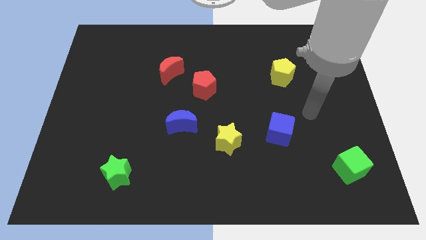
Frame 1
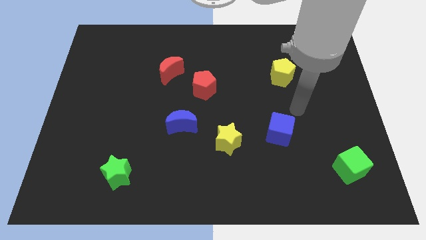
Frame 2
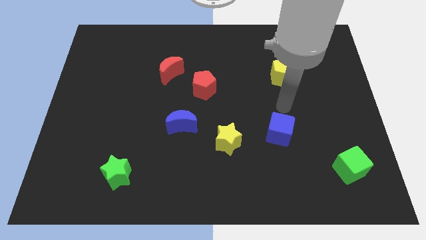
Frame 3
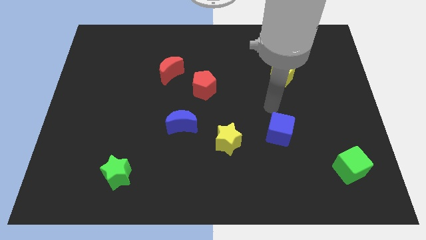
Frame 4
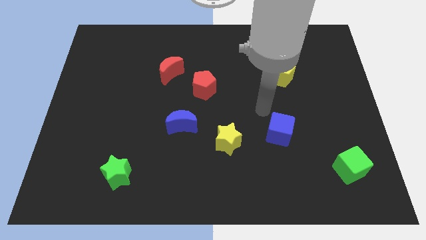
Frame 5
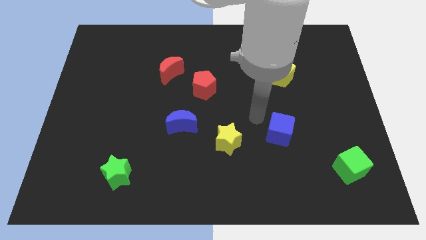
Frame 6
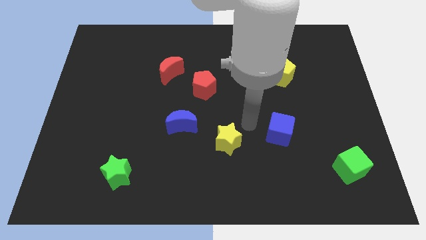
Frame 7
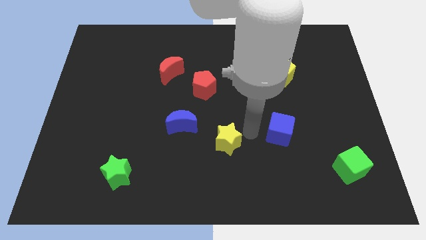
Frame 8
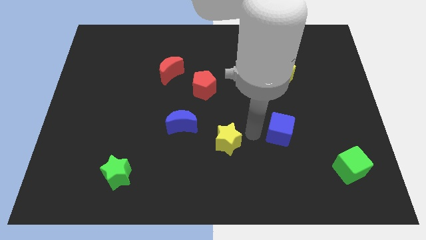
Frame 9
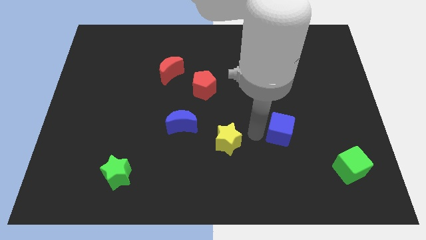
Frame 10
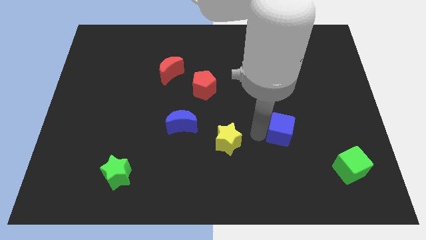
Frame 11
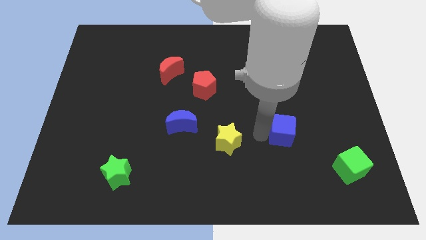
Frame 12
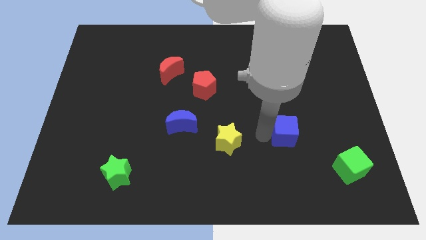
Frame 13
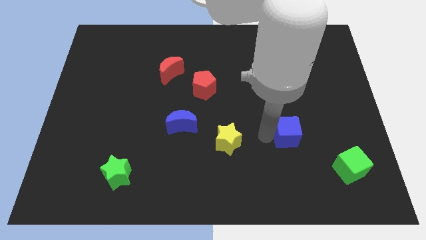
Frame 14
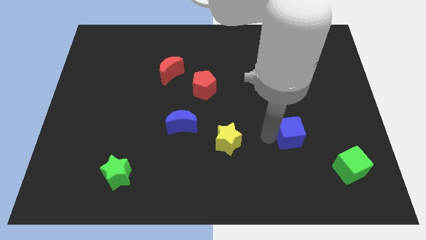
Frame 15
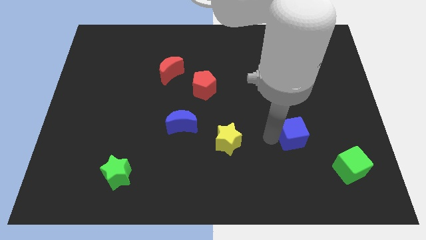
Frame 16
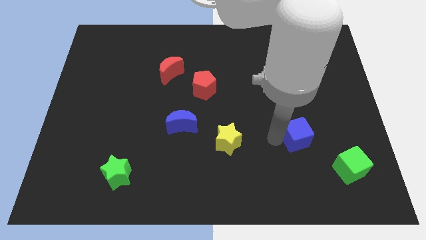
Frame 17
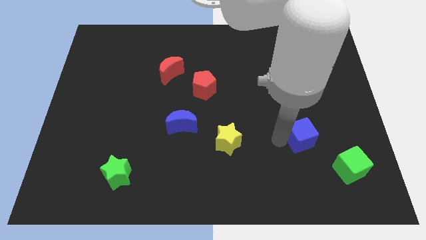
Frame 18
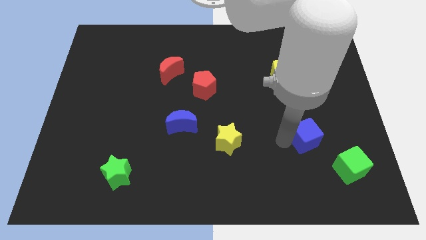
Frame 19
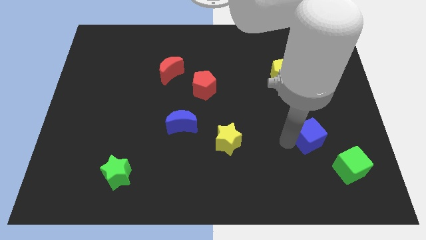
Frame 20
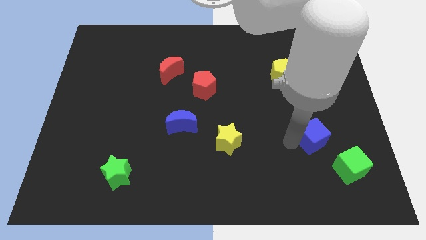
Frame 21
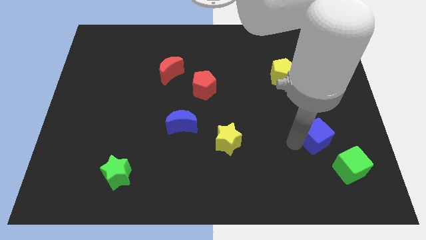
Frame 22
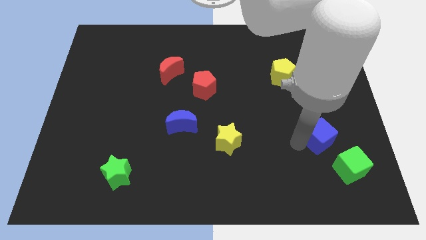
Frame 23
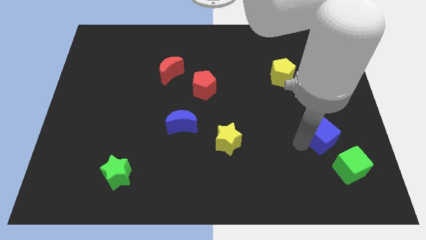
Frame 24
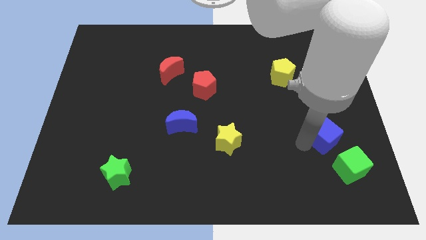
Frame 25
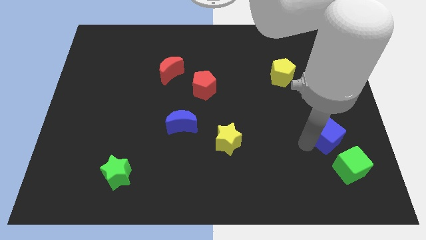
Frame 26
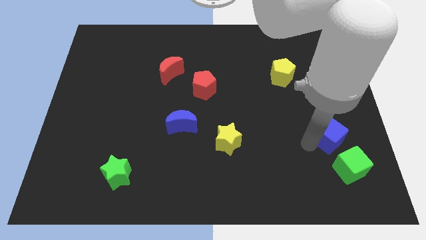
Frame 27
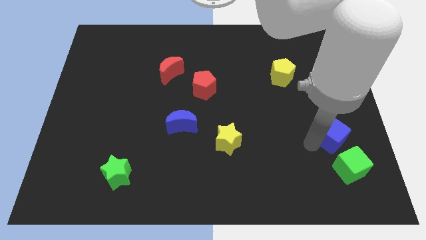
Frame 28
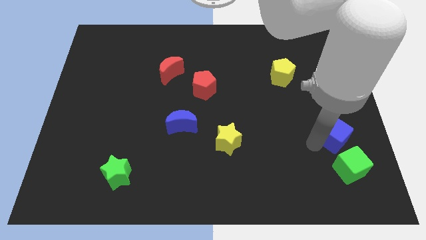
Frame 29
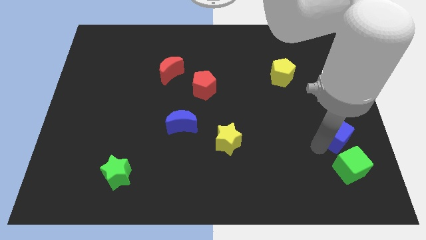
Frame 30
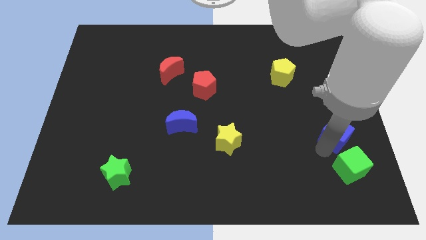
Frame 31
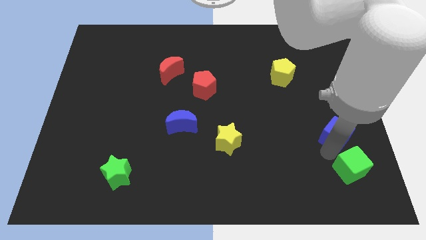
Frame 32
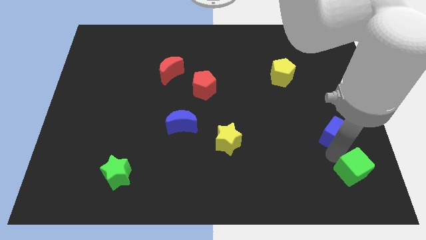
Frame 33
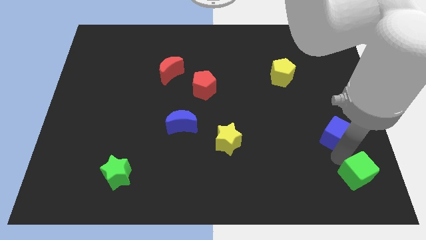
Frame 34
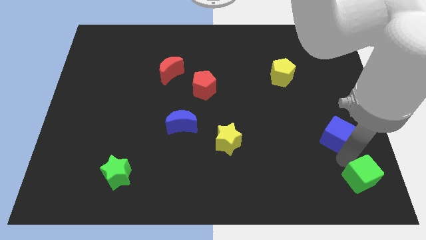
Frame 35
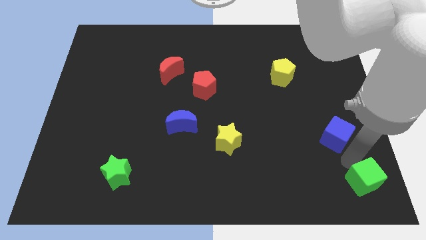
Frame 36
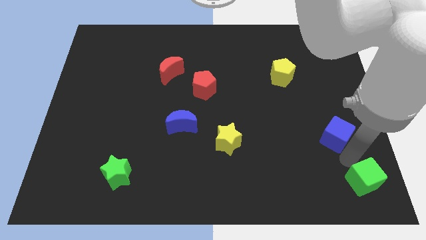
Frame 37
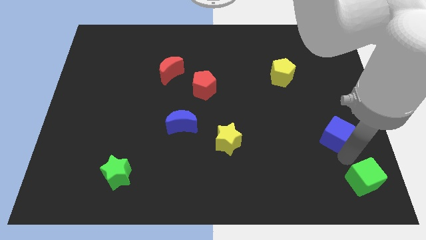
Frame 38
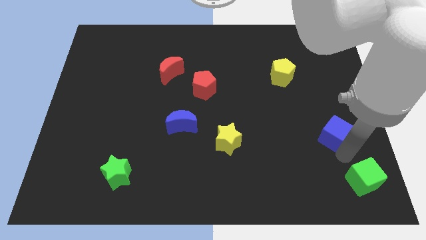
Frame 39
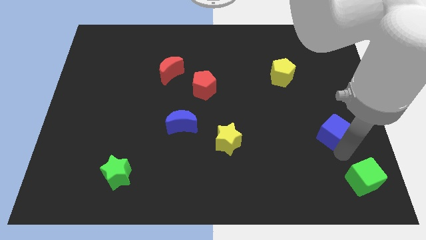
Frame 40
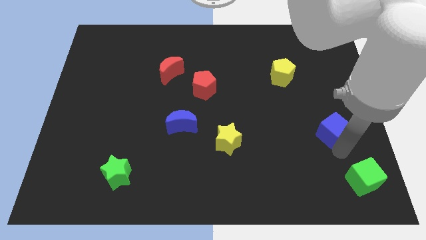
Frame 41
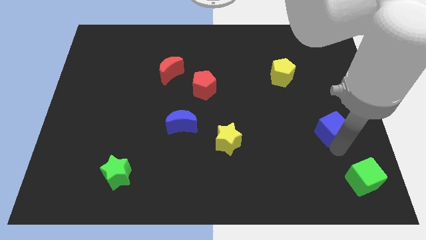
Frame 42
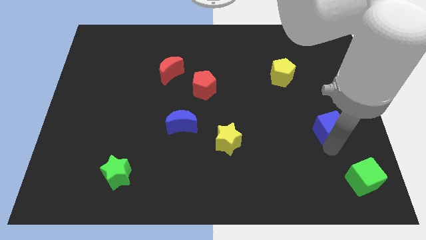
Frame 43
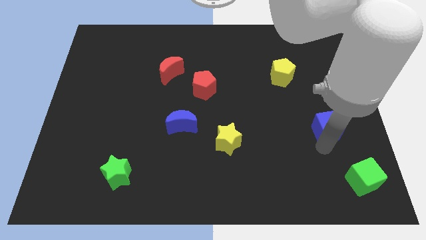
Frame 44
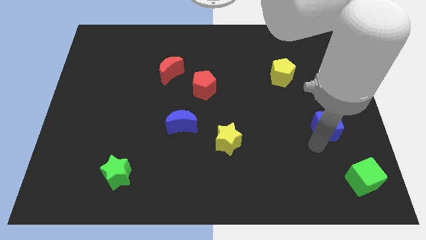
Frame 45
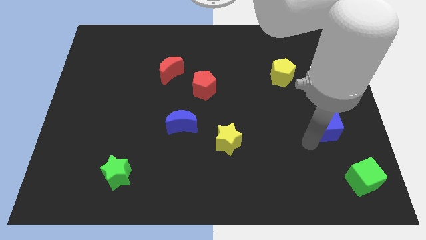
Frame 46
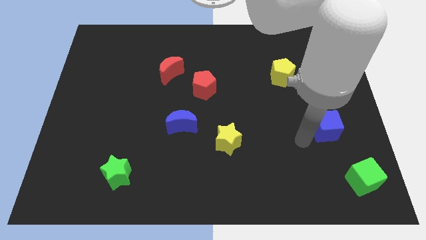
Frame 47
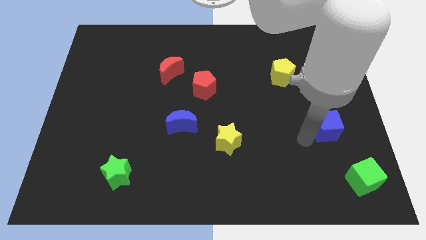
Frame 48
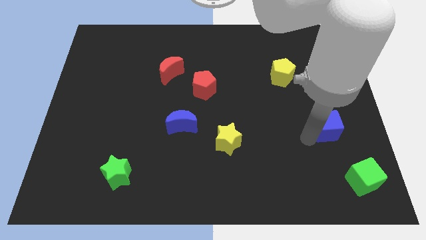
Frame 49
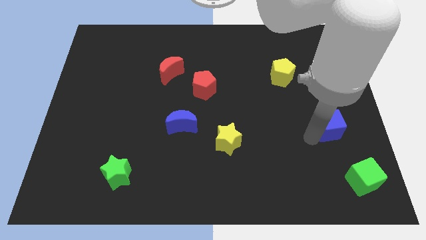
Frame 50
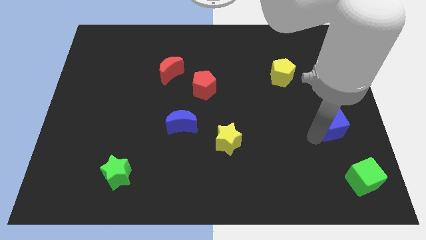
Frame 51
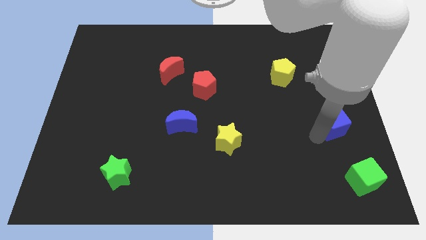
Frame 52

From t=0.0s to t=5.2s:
move the blue cube to the center right

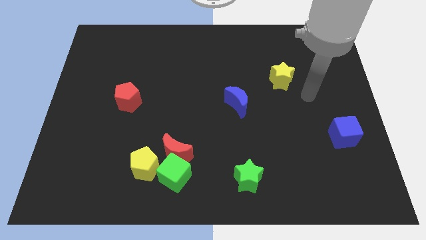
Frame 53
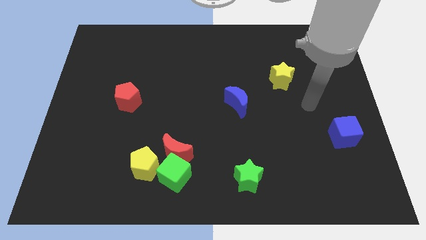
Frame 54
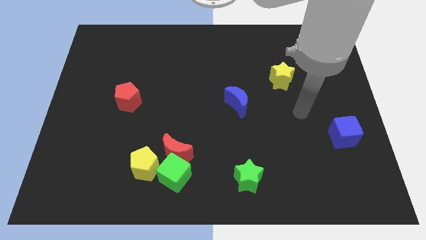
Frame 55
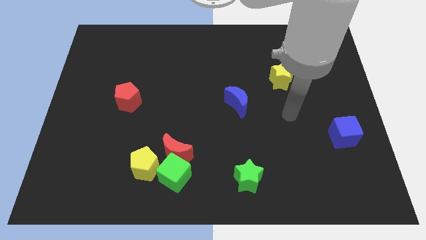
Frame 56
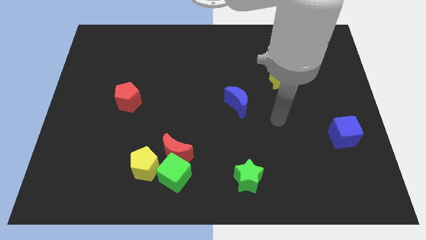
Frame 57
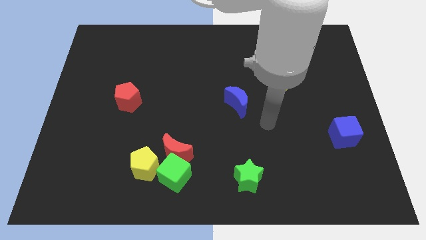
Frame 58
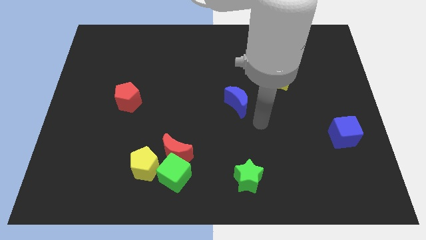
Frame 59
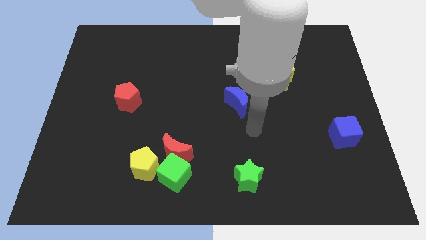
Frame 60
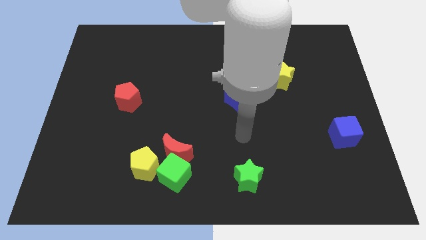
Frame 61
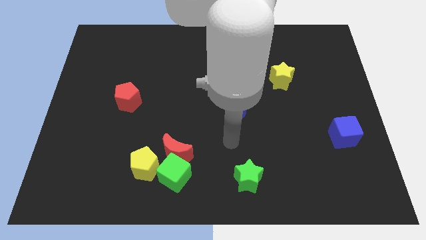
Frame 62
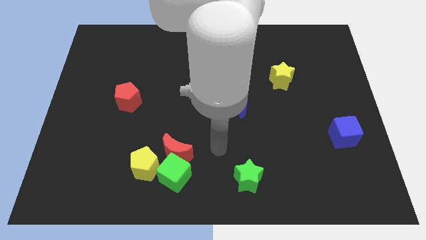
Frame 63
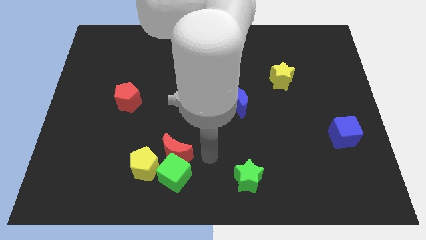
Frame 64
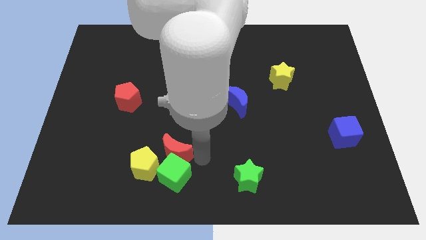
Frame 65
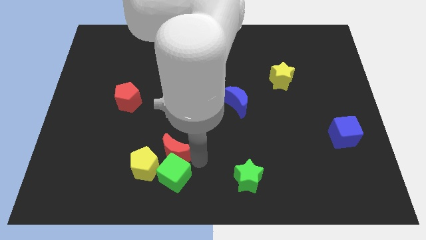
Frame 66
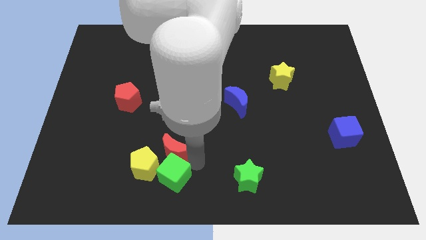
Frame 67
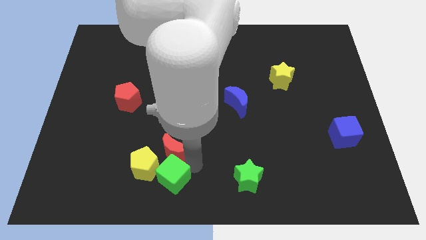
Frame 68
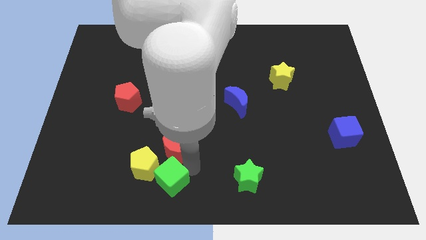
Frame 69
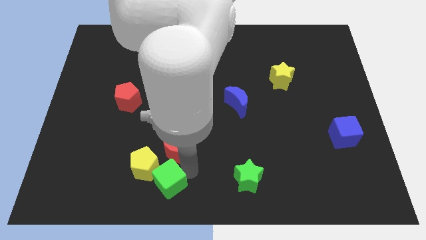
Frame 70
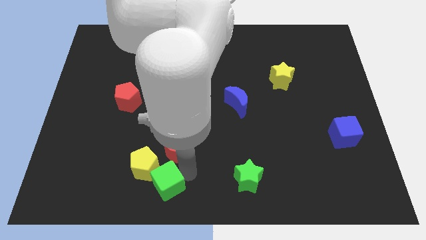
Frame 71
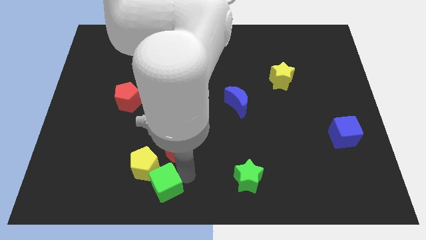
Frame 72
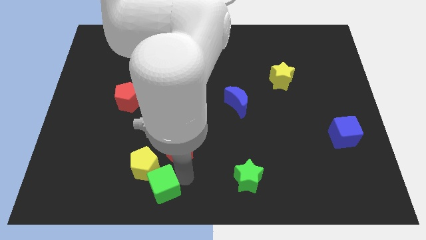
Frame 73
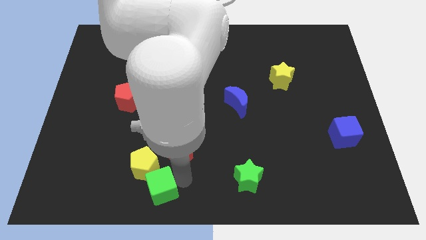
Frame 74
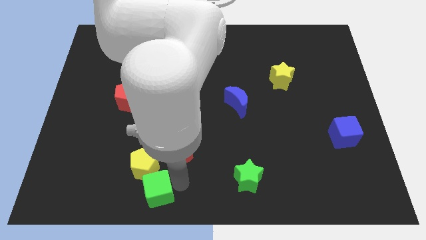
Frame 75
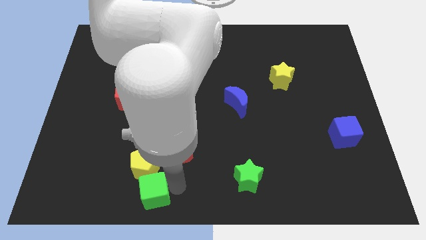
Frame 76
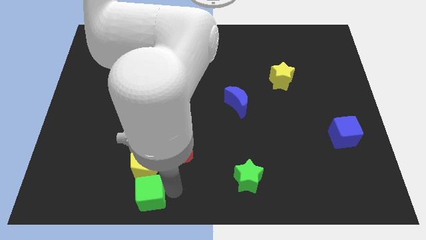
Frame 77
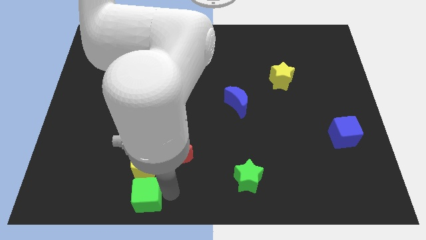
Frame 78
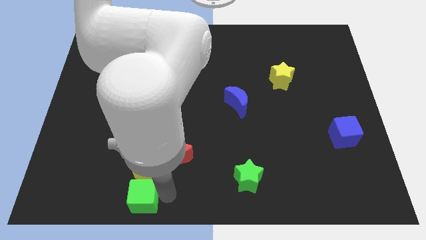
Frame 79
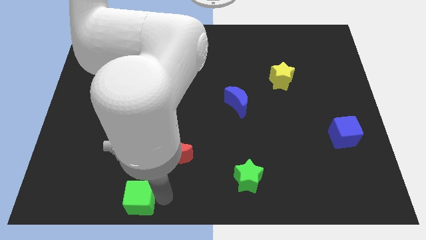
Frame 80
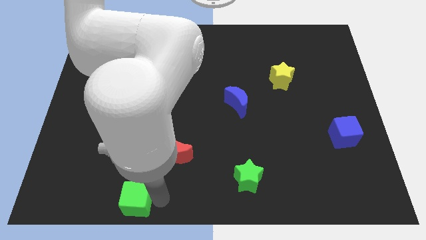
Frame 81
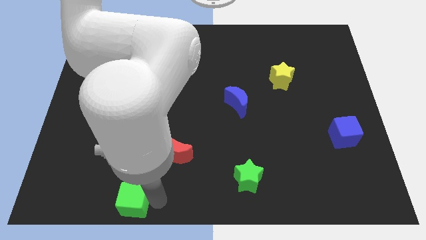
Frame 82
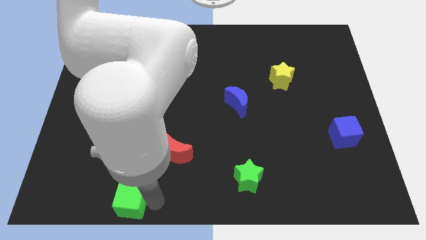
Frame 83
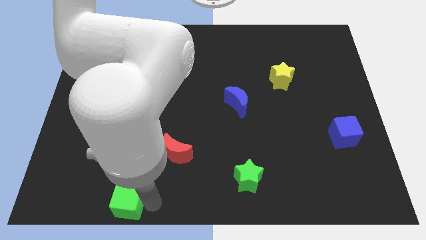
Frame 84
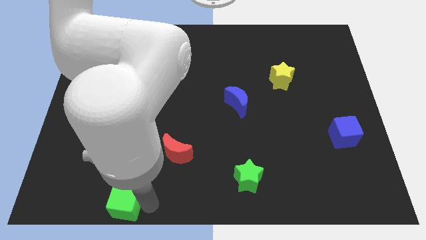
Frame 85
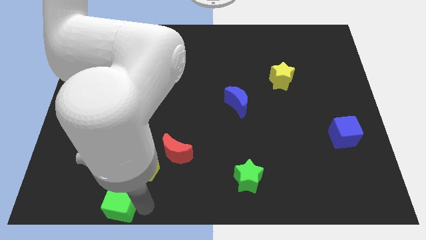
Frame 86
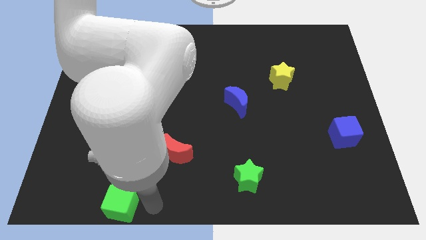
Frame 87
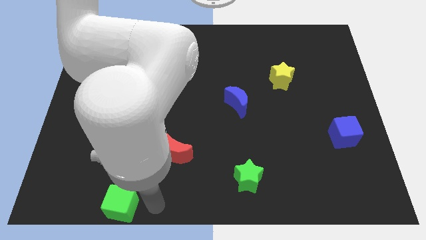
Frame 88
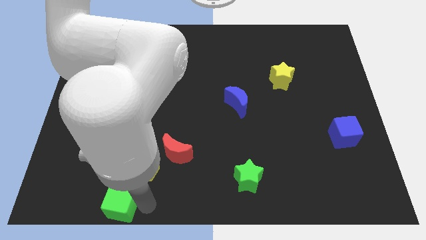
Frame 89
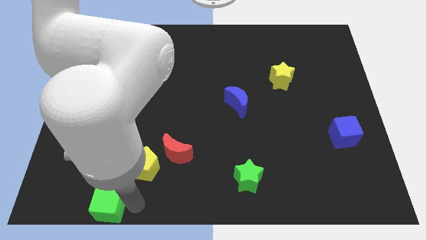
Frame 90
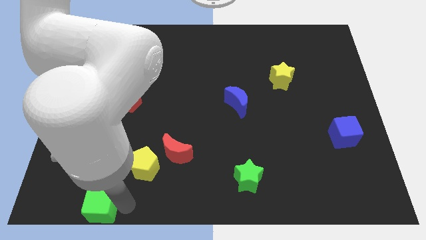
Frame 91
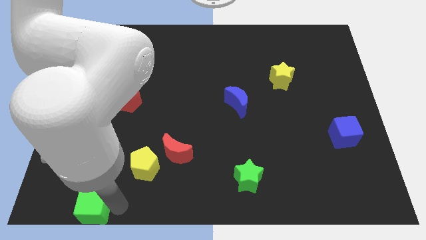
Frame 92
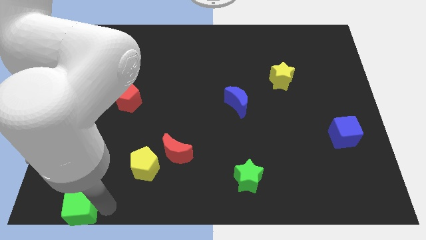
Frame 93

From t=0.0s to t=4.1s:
put the green cube to the bottom left
